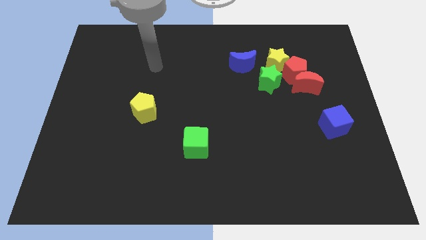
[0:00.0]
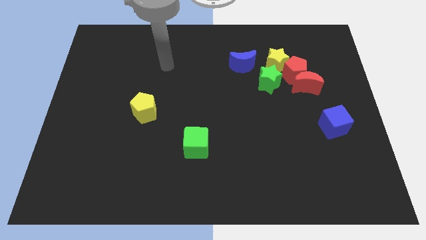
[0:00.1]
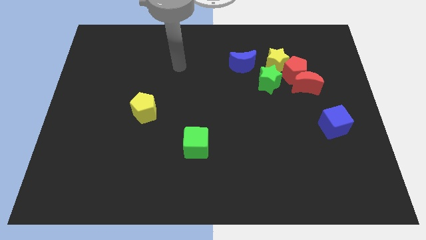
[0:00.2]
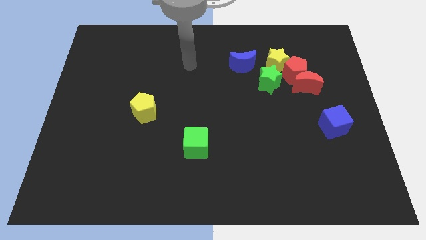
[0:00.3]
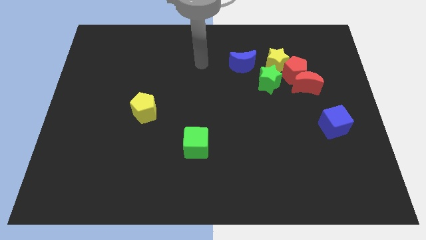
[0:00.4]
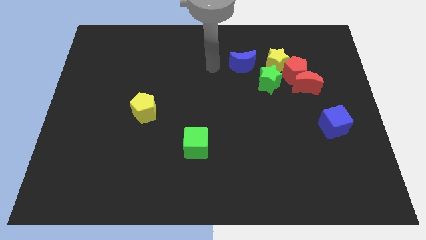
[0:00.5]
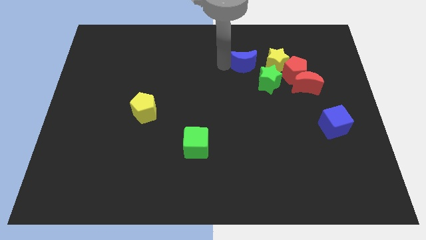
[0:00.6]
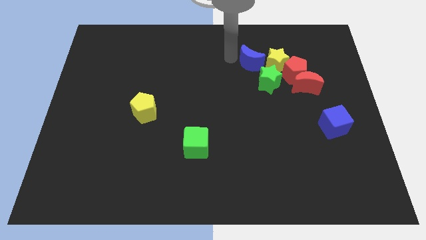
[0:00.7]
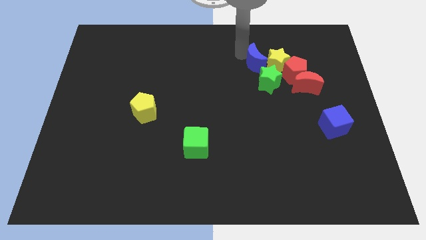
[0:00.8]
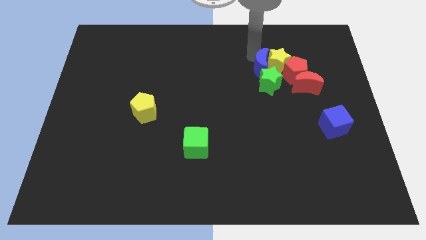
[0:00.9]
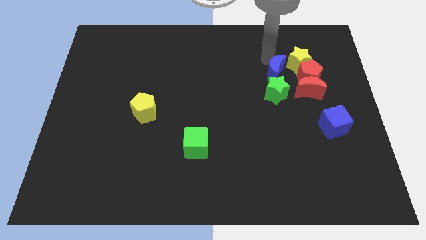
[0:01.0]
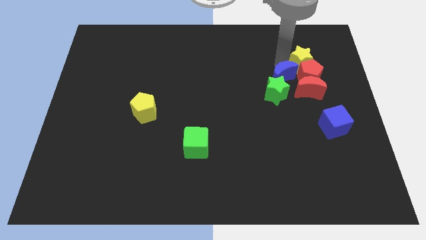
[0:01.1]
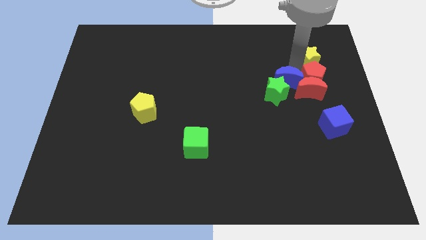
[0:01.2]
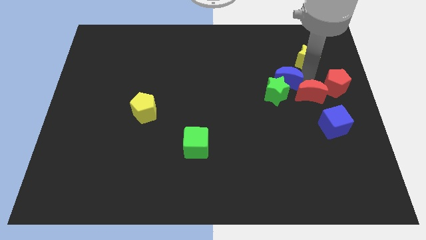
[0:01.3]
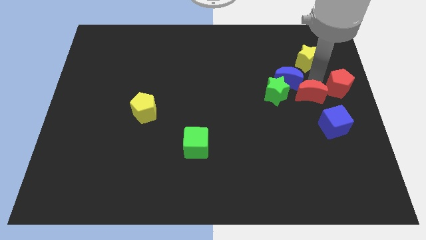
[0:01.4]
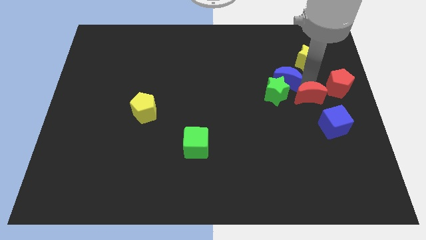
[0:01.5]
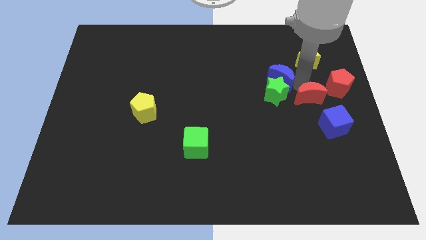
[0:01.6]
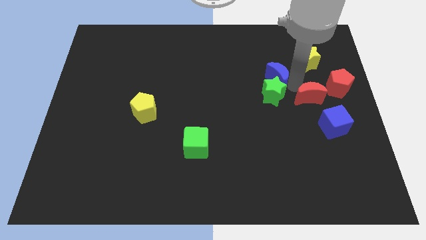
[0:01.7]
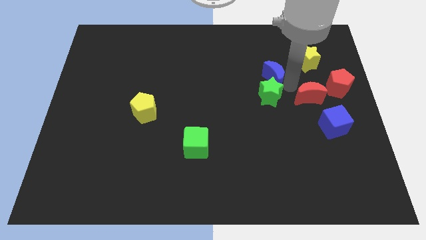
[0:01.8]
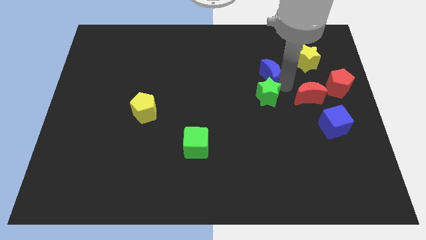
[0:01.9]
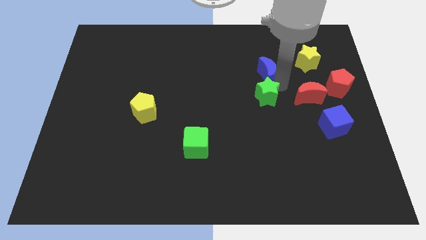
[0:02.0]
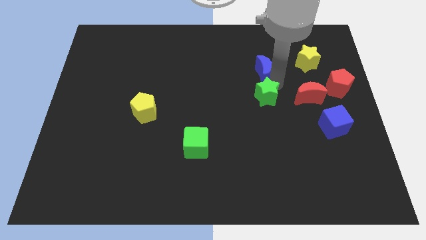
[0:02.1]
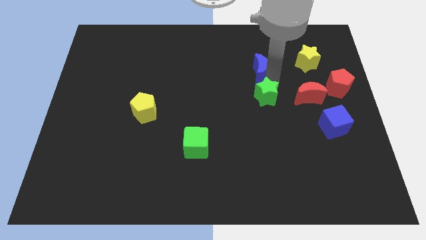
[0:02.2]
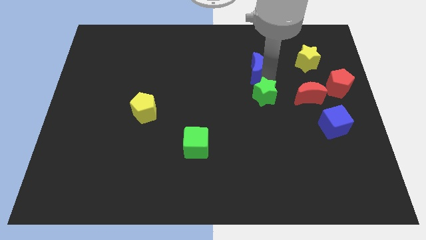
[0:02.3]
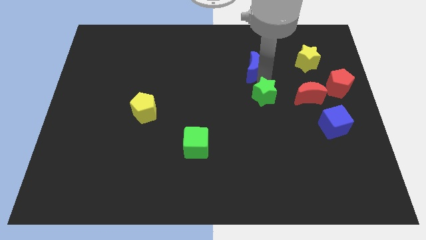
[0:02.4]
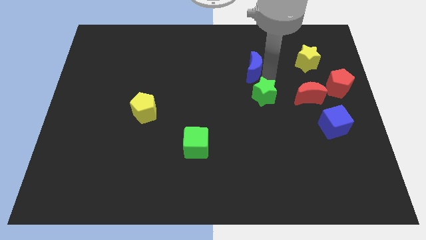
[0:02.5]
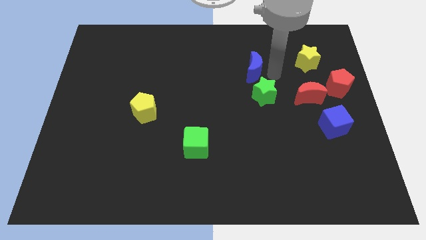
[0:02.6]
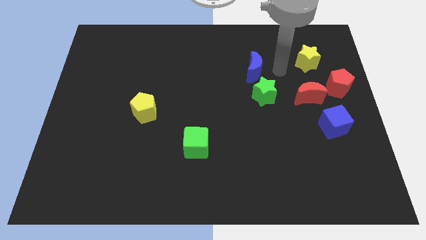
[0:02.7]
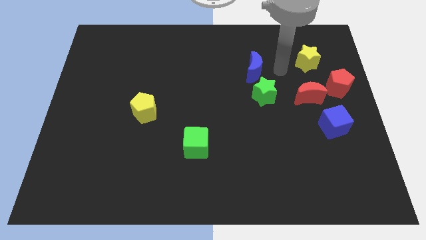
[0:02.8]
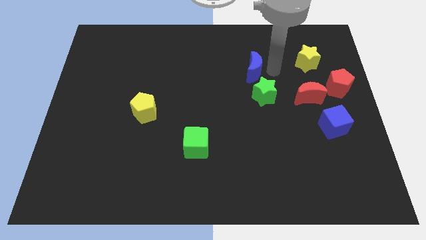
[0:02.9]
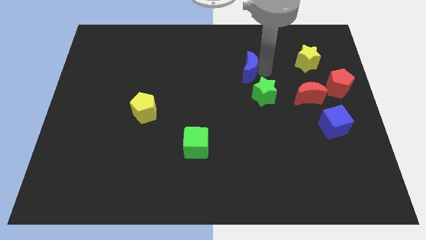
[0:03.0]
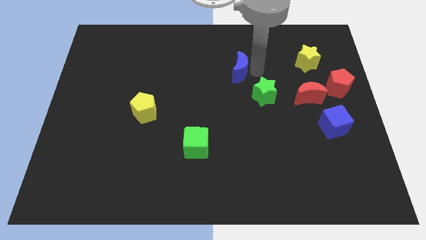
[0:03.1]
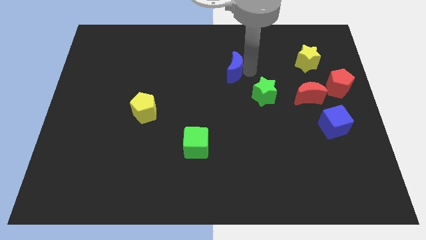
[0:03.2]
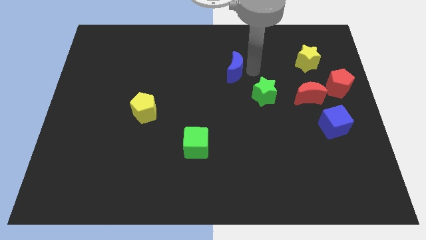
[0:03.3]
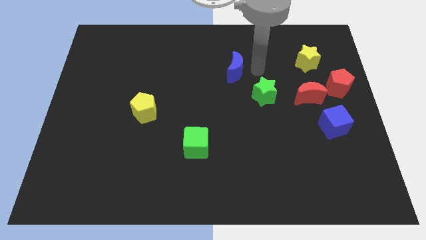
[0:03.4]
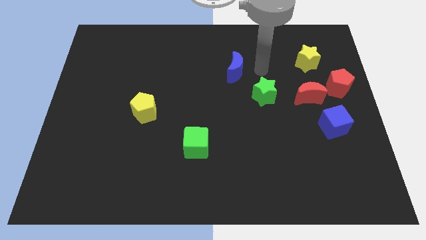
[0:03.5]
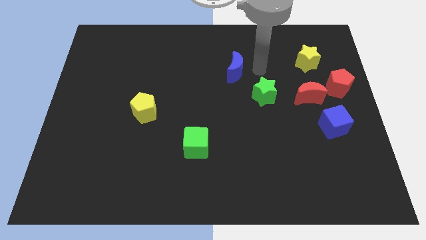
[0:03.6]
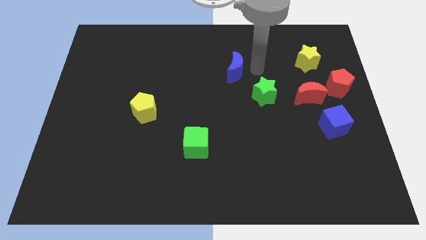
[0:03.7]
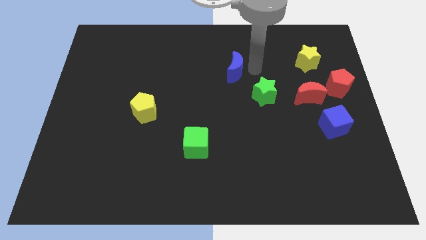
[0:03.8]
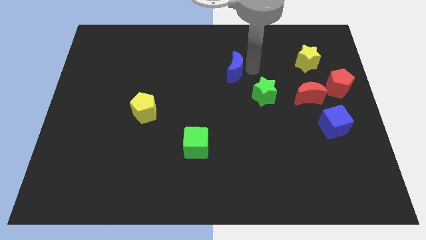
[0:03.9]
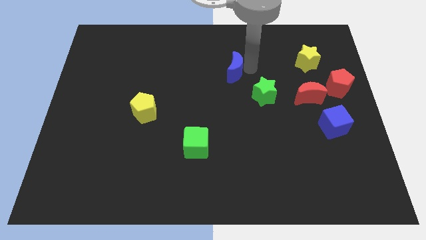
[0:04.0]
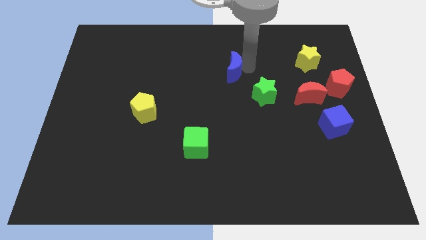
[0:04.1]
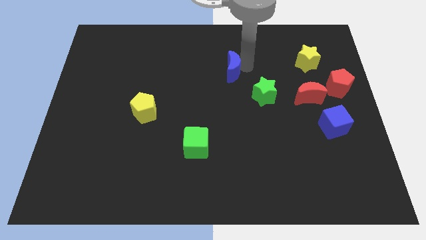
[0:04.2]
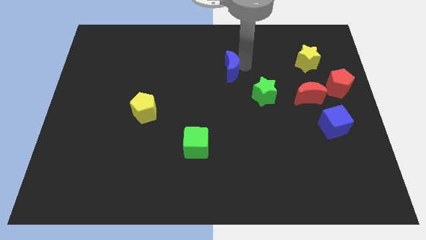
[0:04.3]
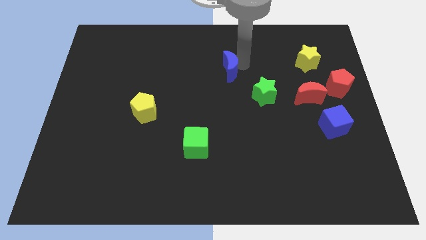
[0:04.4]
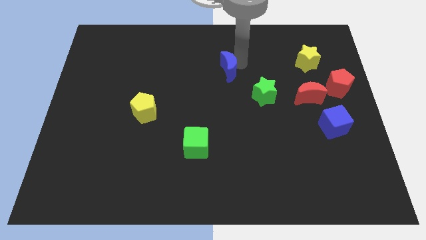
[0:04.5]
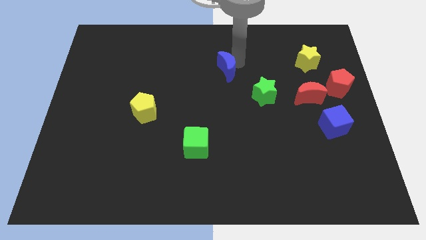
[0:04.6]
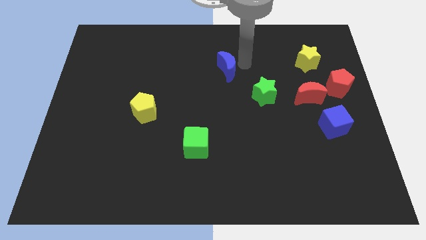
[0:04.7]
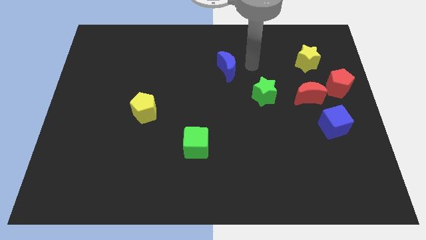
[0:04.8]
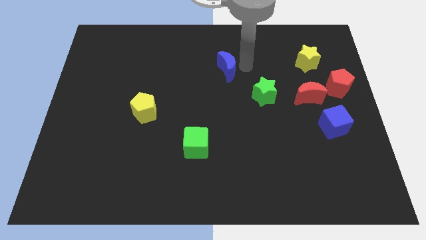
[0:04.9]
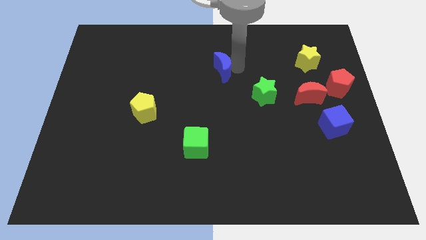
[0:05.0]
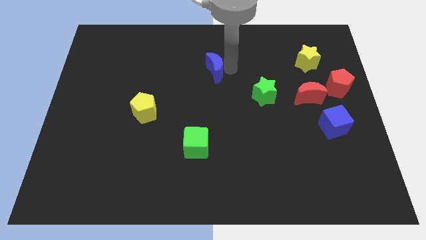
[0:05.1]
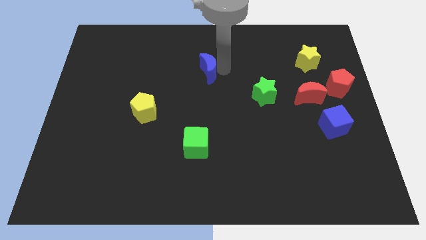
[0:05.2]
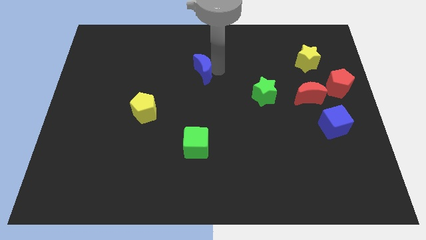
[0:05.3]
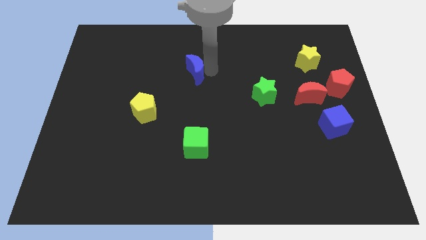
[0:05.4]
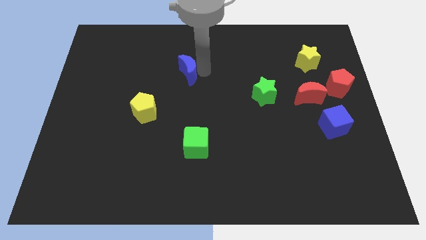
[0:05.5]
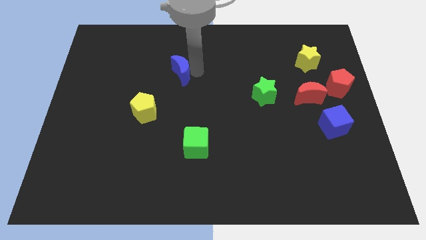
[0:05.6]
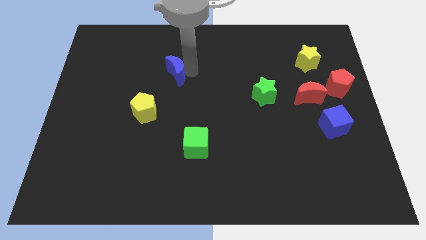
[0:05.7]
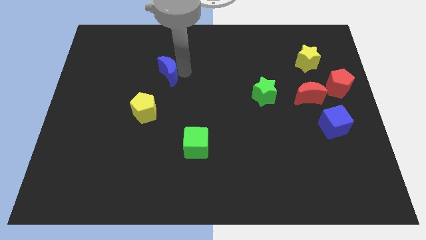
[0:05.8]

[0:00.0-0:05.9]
slide the blue moon to the top side of the yellow pentagon

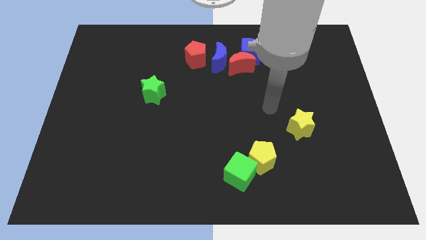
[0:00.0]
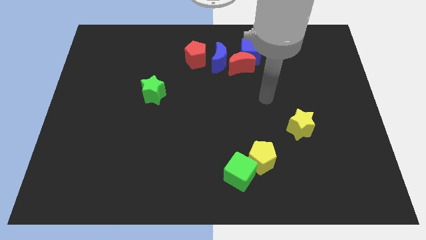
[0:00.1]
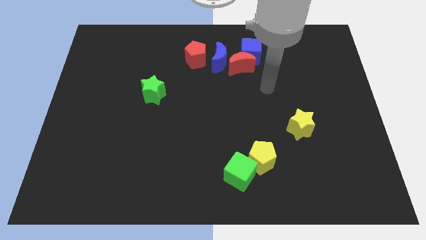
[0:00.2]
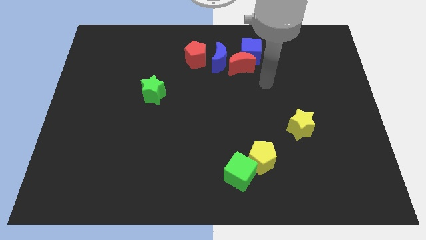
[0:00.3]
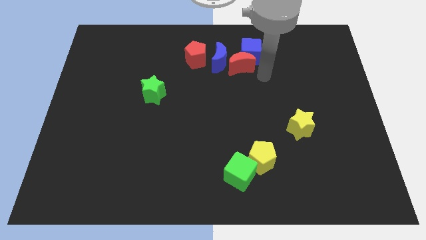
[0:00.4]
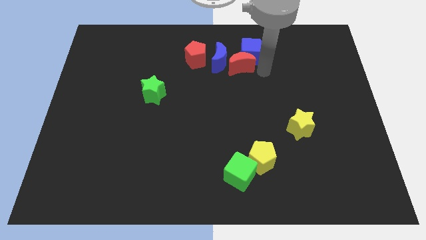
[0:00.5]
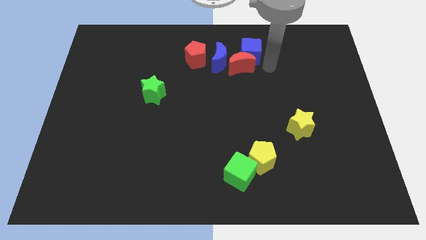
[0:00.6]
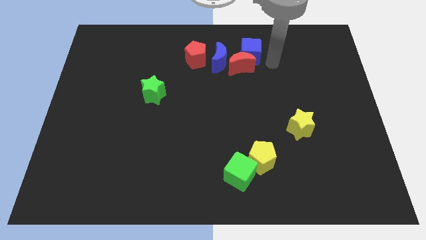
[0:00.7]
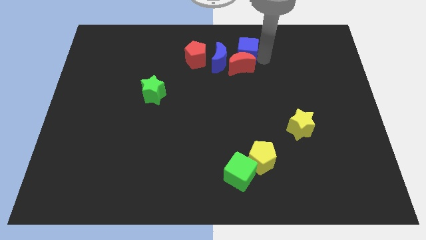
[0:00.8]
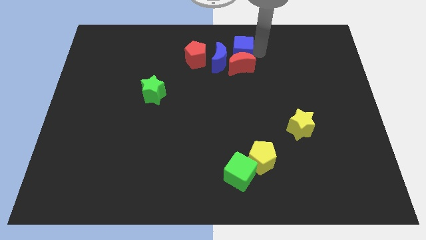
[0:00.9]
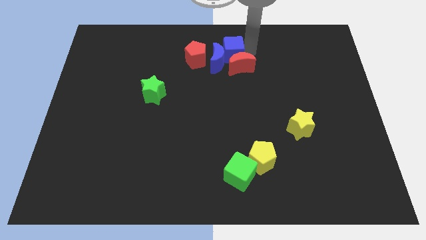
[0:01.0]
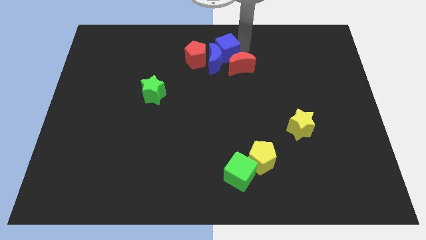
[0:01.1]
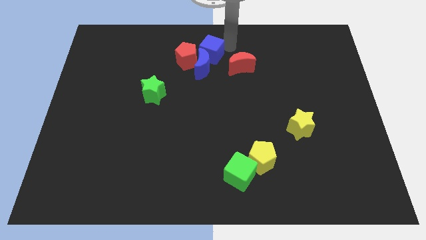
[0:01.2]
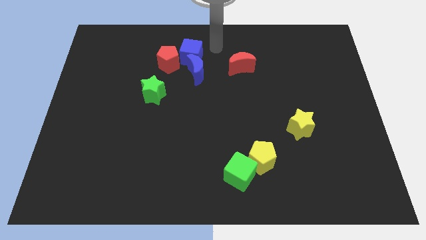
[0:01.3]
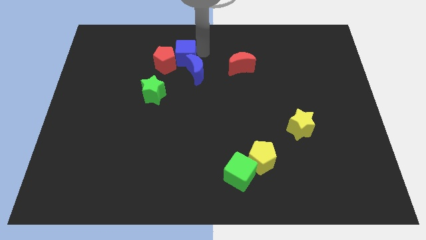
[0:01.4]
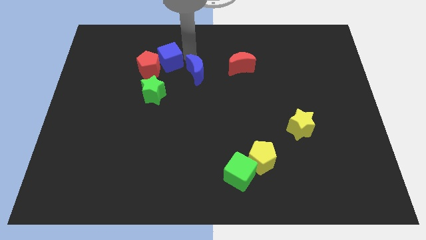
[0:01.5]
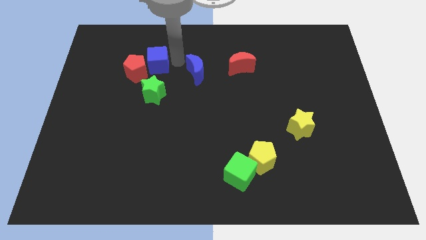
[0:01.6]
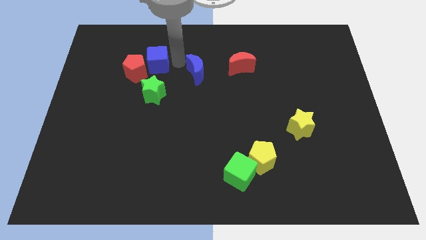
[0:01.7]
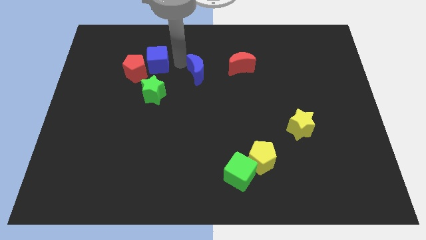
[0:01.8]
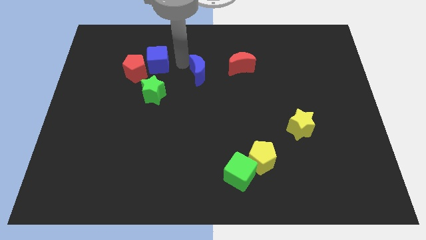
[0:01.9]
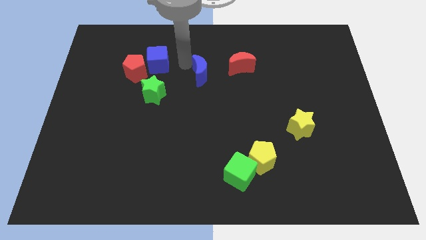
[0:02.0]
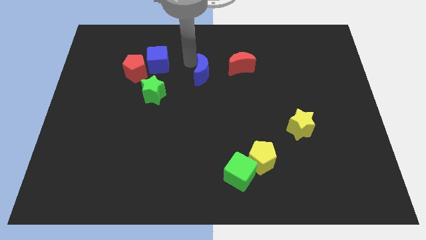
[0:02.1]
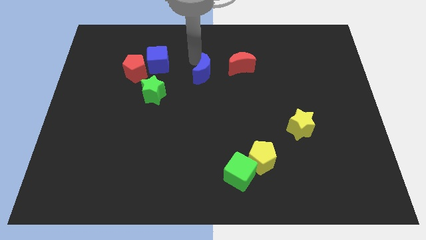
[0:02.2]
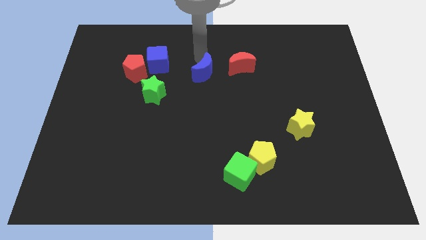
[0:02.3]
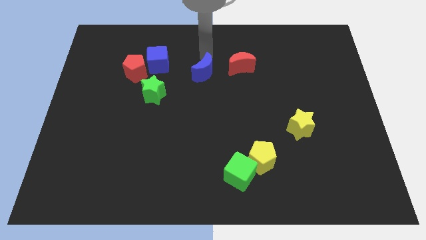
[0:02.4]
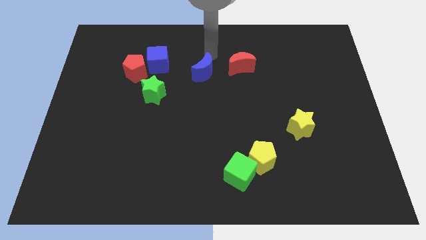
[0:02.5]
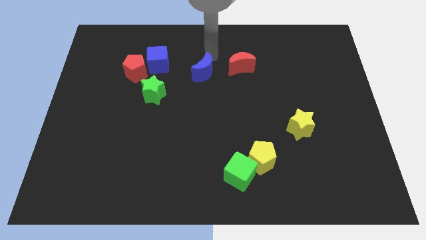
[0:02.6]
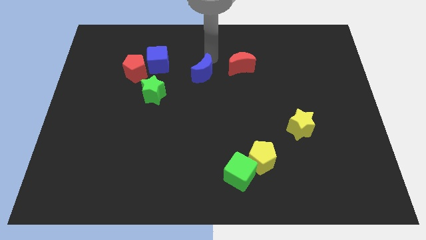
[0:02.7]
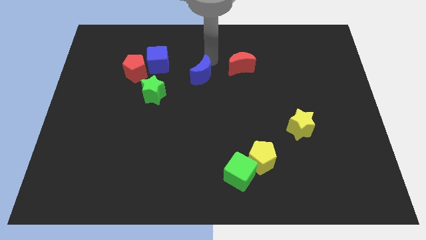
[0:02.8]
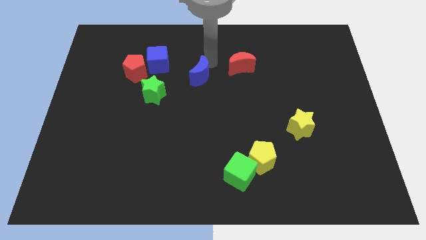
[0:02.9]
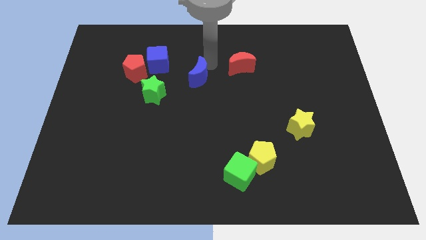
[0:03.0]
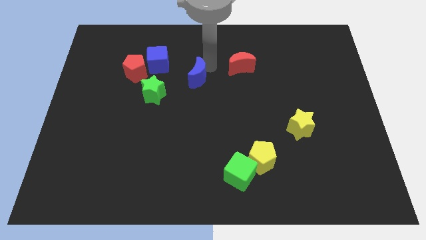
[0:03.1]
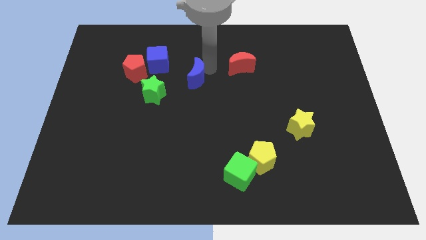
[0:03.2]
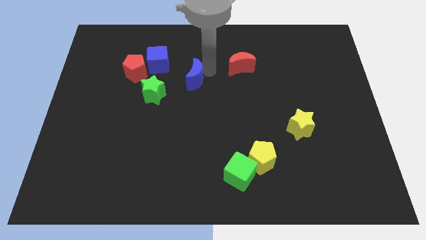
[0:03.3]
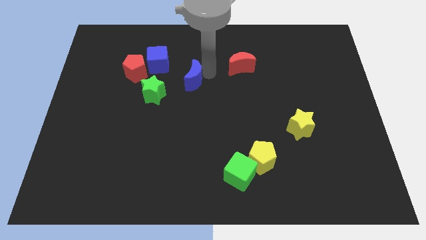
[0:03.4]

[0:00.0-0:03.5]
move the blue moon to the right side of the green star
